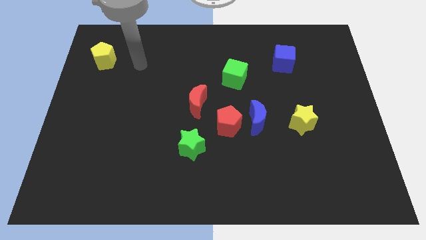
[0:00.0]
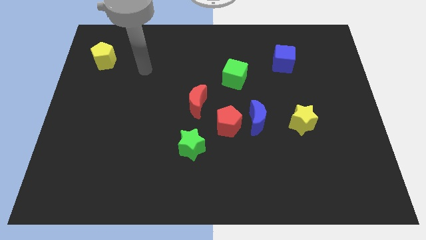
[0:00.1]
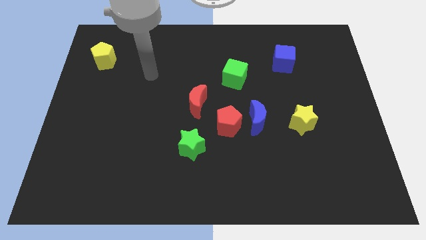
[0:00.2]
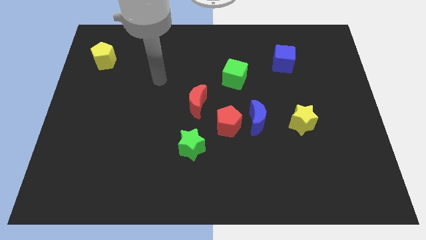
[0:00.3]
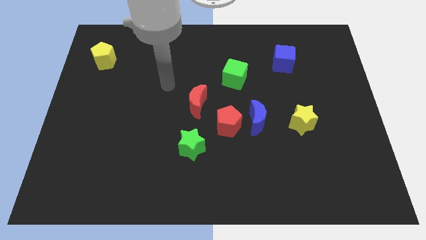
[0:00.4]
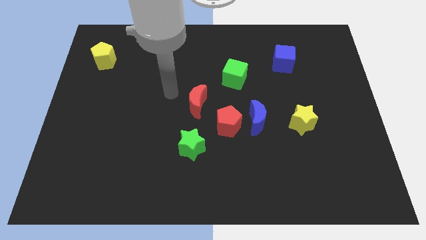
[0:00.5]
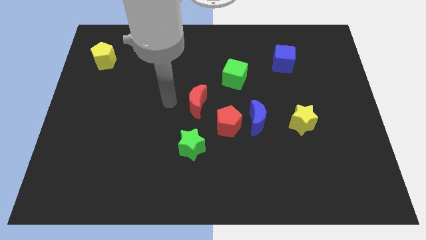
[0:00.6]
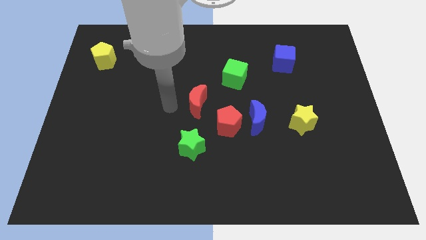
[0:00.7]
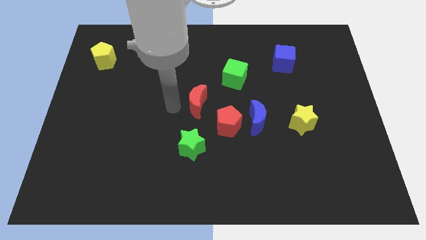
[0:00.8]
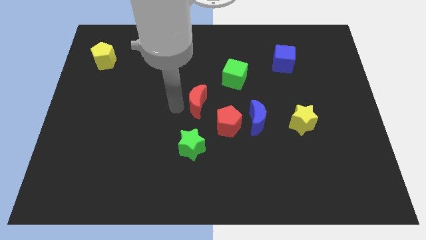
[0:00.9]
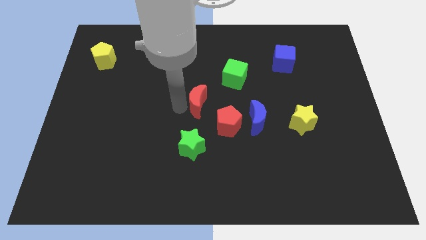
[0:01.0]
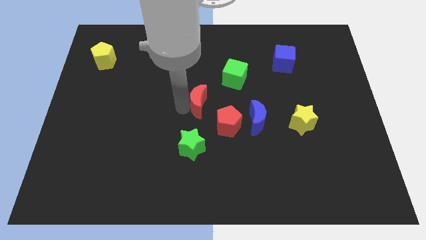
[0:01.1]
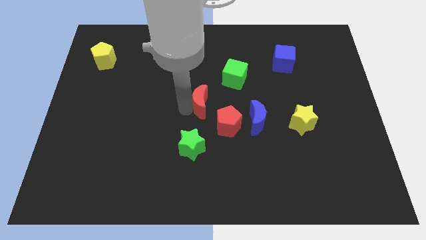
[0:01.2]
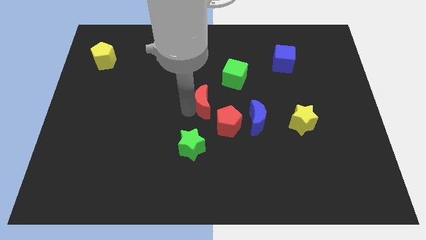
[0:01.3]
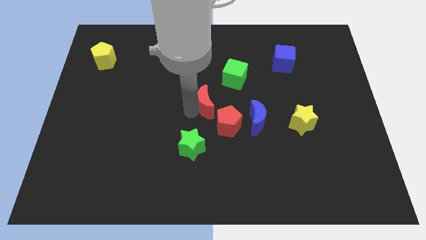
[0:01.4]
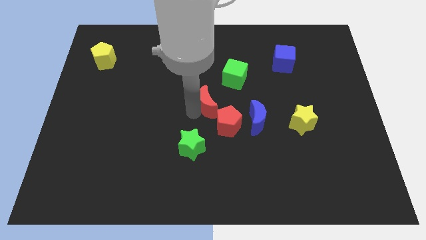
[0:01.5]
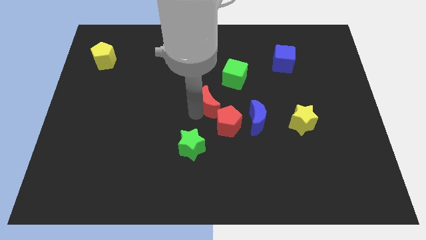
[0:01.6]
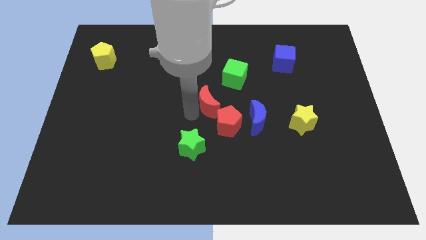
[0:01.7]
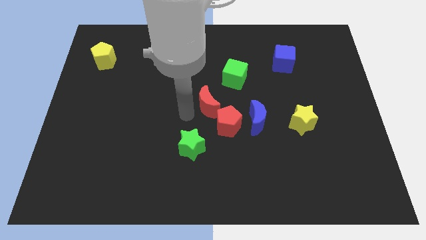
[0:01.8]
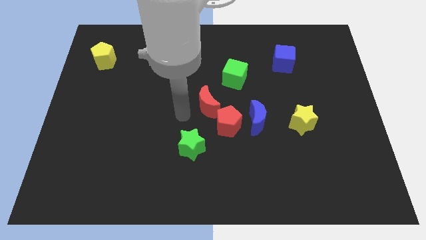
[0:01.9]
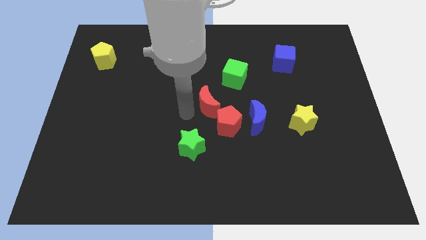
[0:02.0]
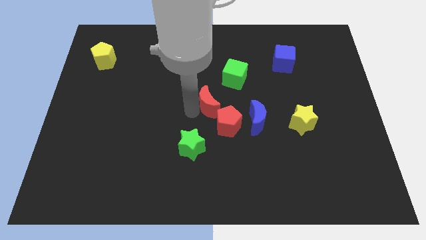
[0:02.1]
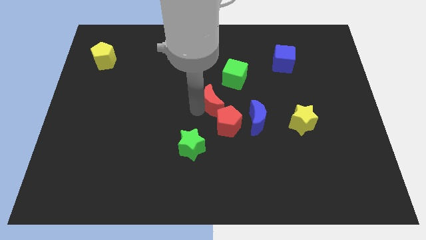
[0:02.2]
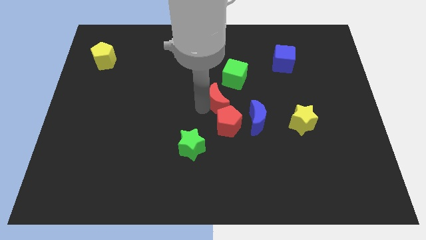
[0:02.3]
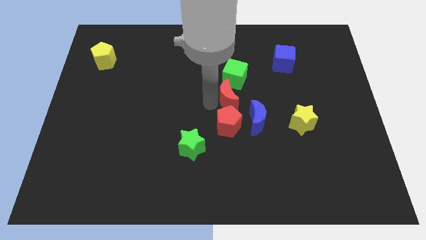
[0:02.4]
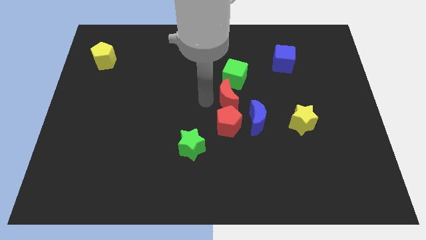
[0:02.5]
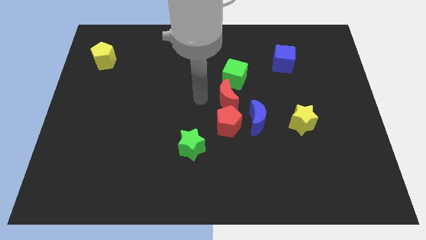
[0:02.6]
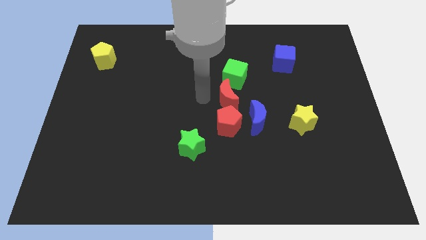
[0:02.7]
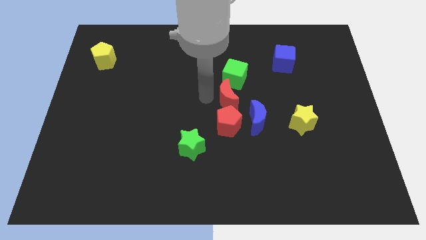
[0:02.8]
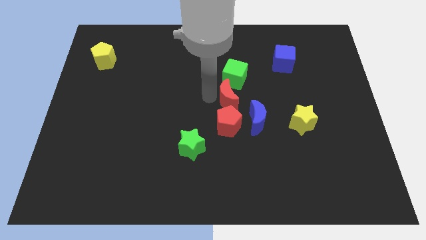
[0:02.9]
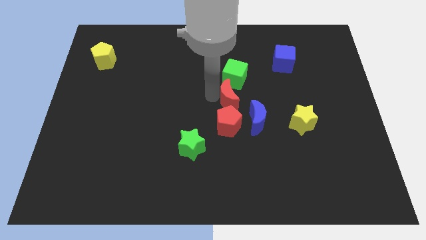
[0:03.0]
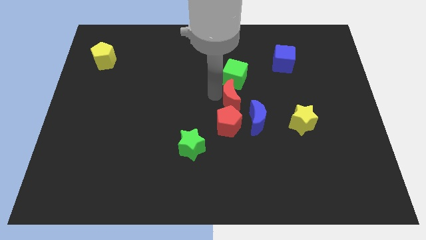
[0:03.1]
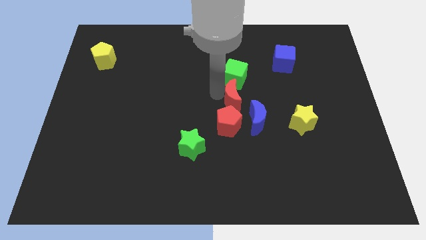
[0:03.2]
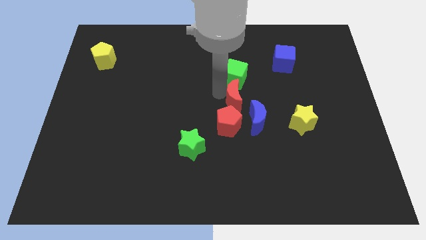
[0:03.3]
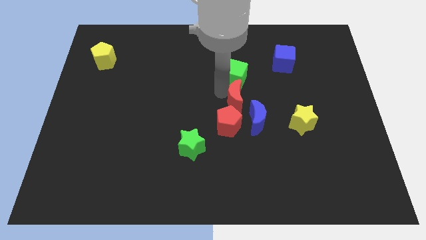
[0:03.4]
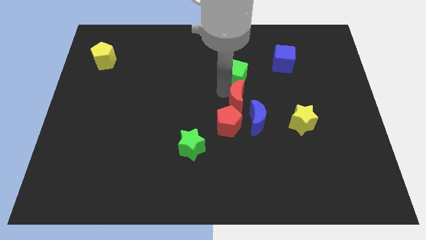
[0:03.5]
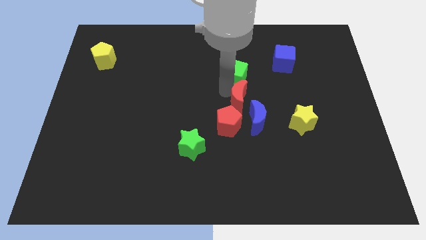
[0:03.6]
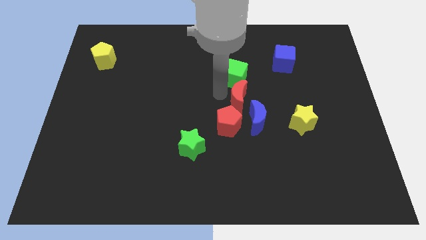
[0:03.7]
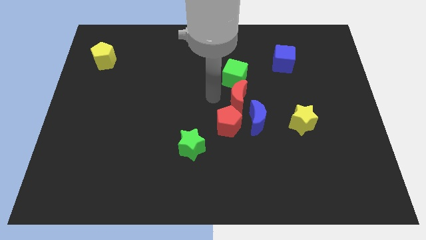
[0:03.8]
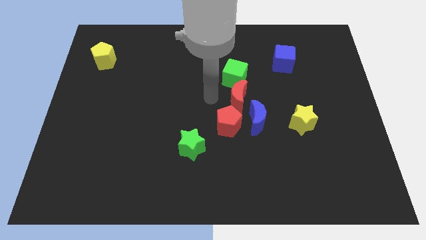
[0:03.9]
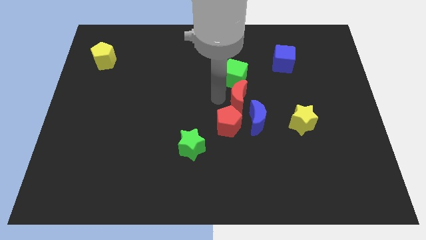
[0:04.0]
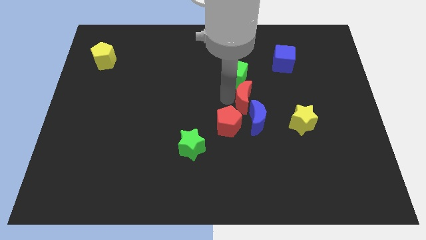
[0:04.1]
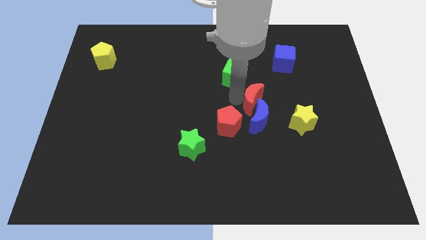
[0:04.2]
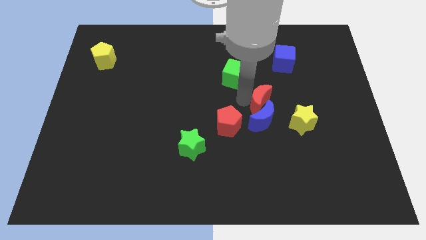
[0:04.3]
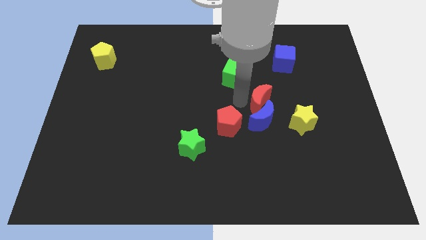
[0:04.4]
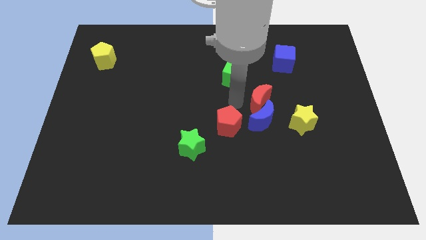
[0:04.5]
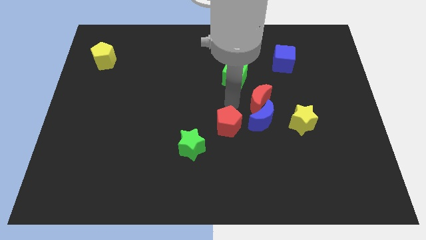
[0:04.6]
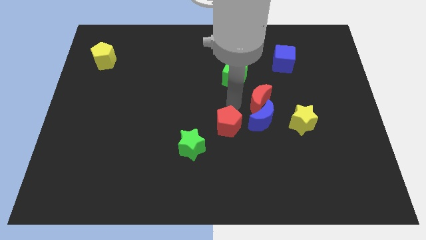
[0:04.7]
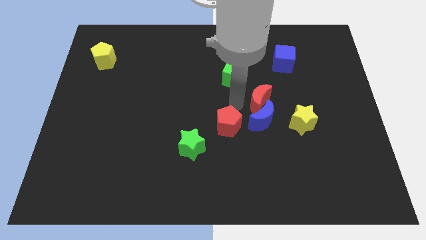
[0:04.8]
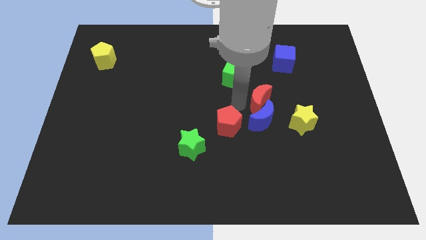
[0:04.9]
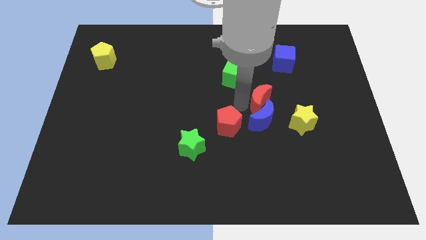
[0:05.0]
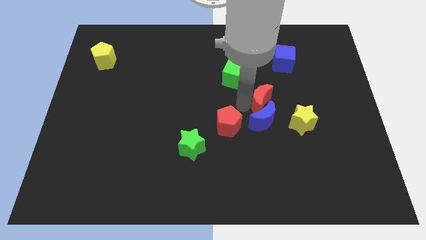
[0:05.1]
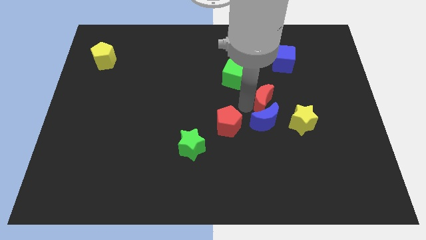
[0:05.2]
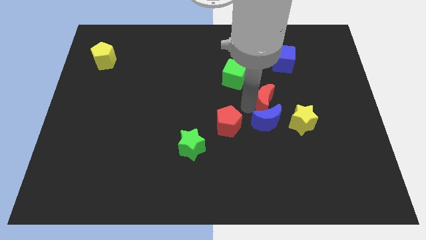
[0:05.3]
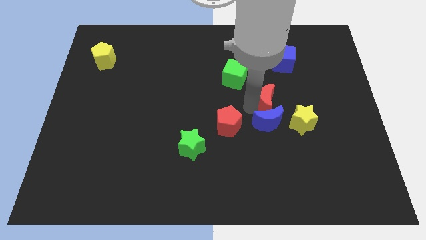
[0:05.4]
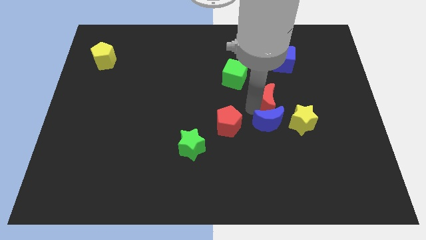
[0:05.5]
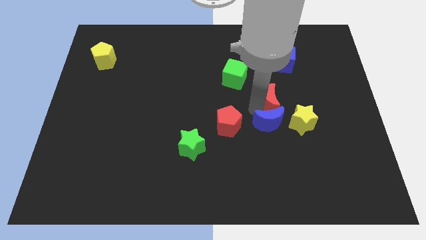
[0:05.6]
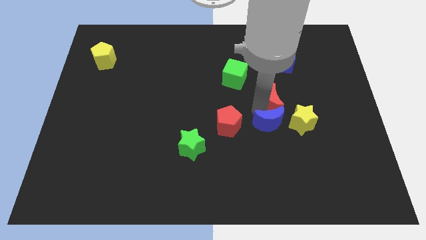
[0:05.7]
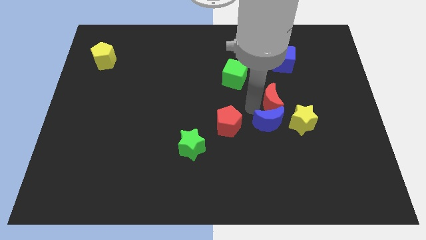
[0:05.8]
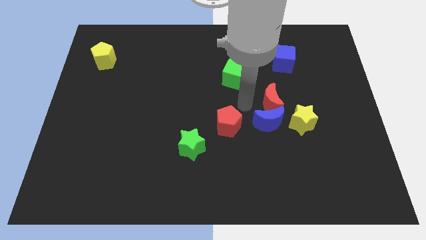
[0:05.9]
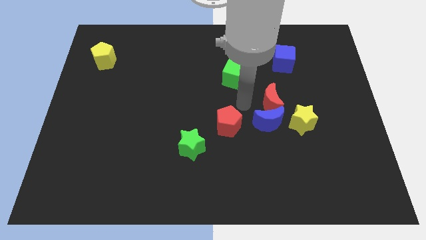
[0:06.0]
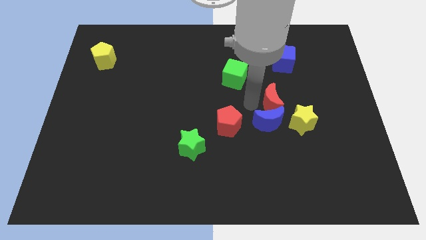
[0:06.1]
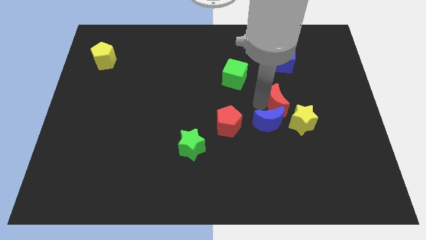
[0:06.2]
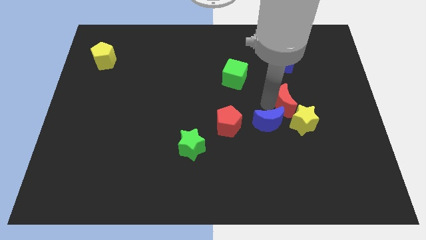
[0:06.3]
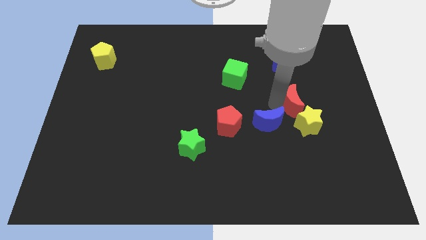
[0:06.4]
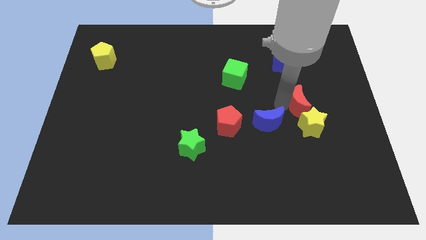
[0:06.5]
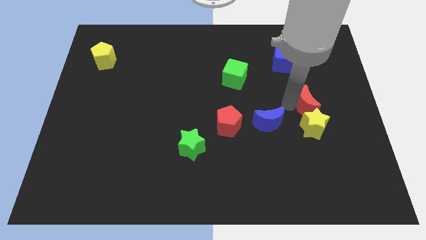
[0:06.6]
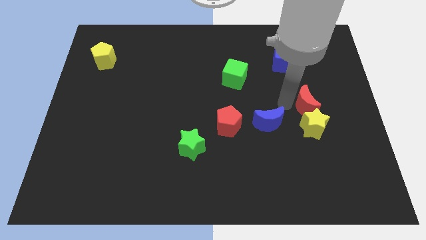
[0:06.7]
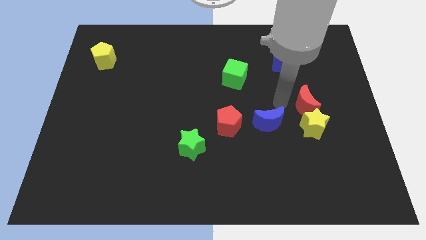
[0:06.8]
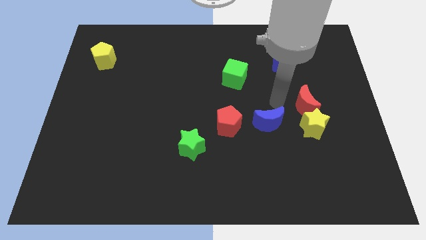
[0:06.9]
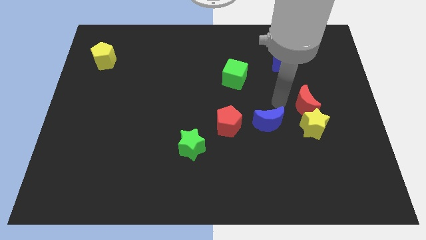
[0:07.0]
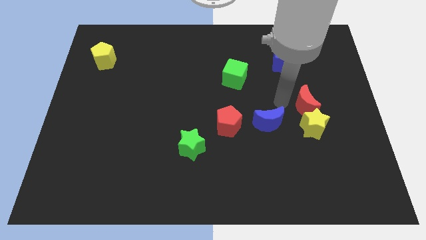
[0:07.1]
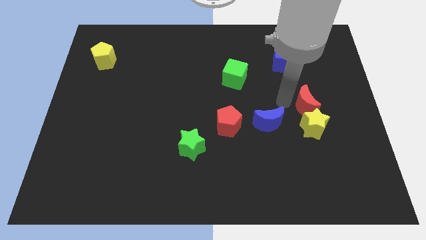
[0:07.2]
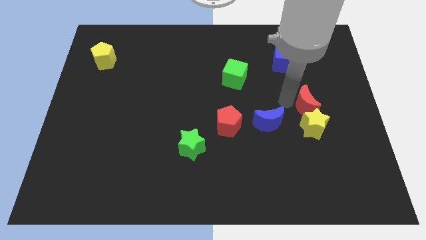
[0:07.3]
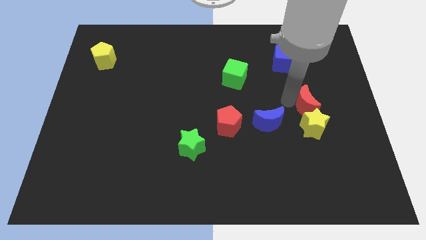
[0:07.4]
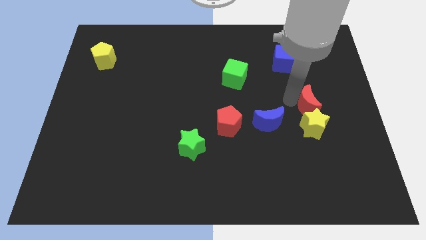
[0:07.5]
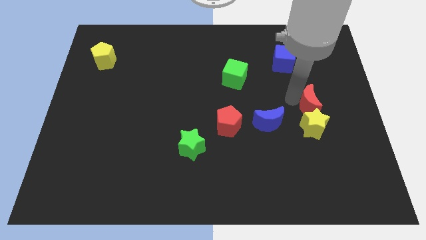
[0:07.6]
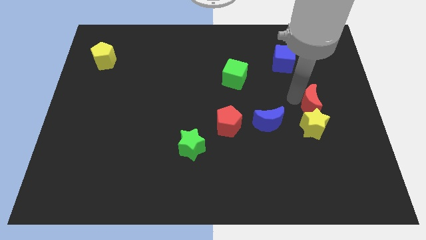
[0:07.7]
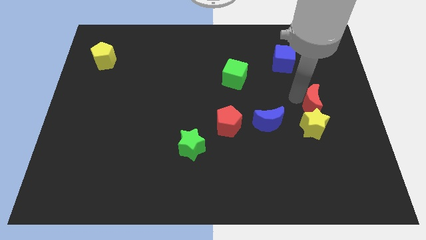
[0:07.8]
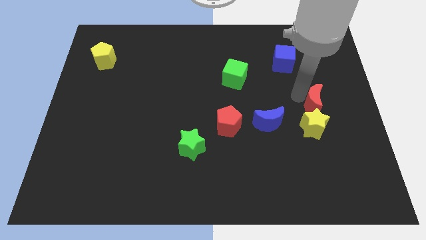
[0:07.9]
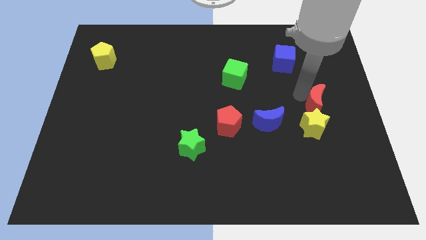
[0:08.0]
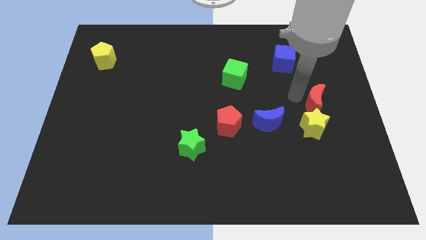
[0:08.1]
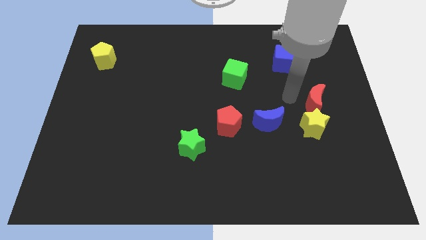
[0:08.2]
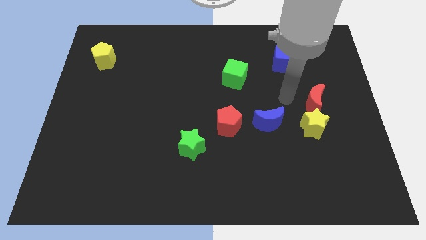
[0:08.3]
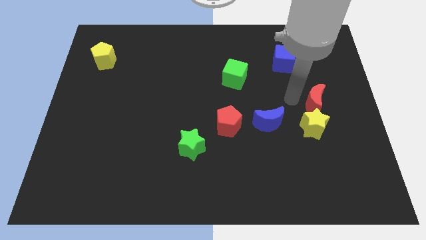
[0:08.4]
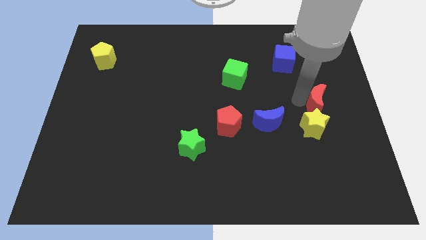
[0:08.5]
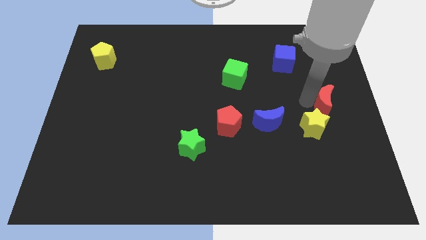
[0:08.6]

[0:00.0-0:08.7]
move the red moon to the center right
